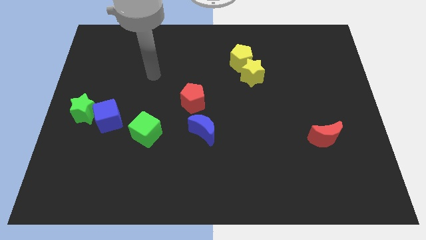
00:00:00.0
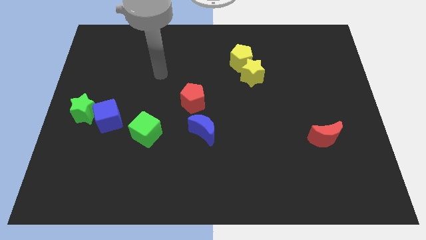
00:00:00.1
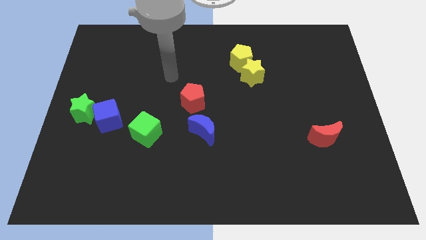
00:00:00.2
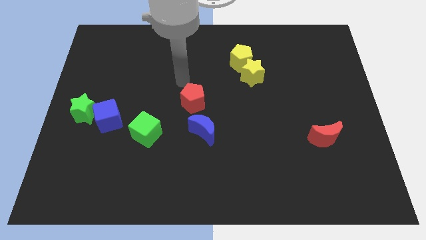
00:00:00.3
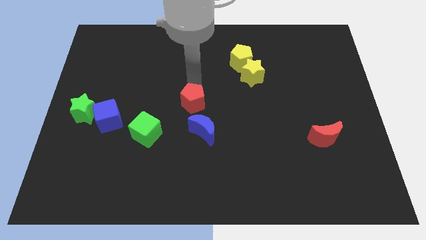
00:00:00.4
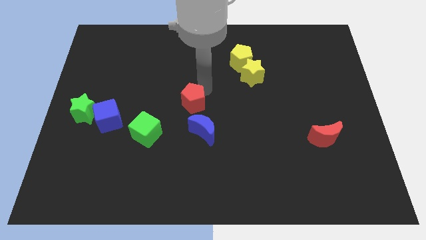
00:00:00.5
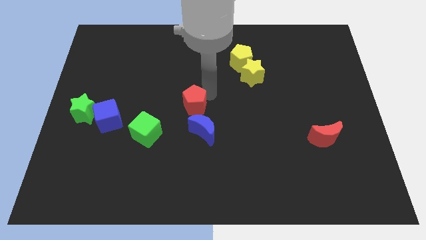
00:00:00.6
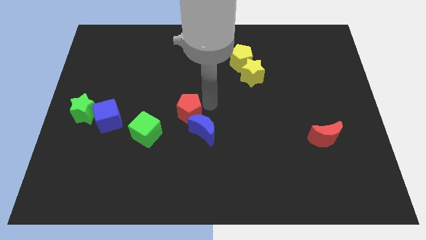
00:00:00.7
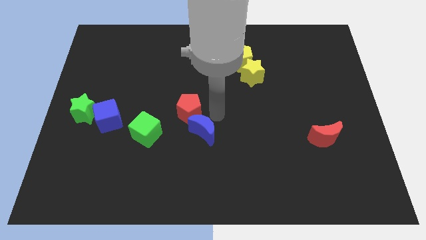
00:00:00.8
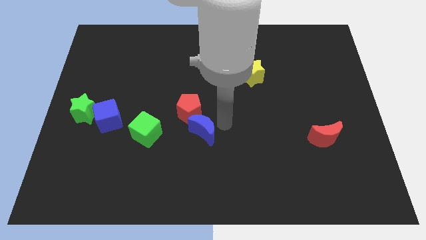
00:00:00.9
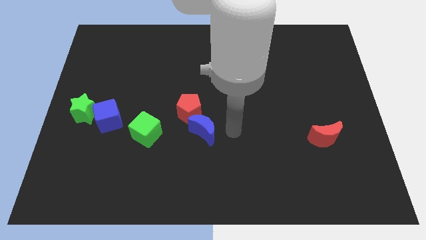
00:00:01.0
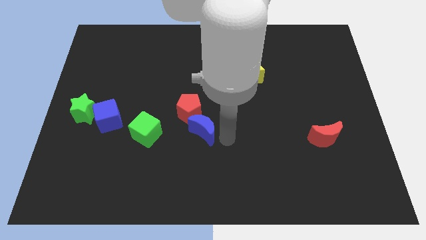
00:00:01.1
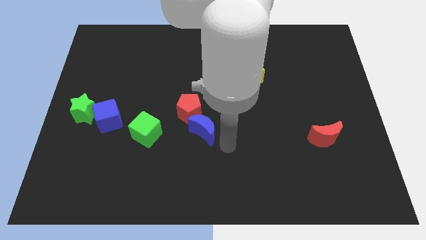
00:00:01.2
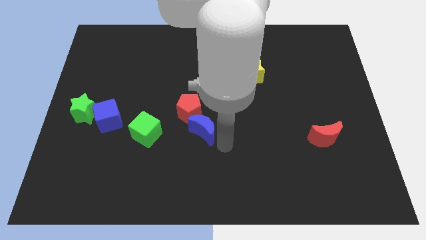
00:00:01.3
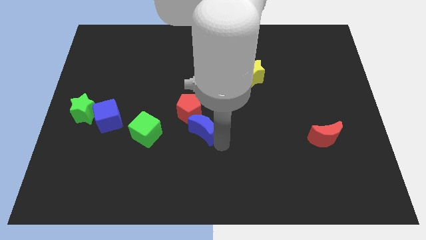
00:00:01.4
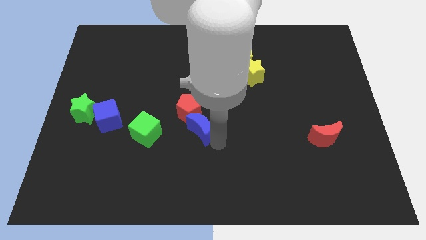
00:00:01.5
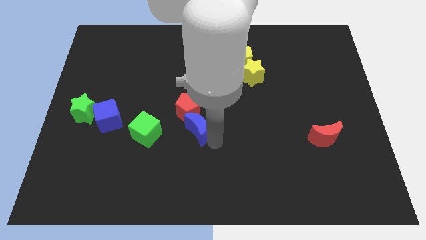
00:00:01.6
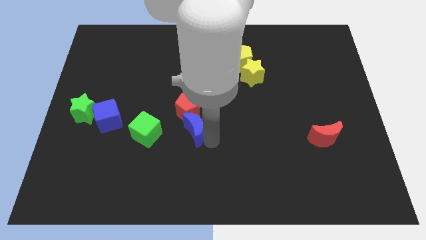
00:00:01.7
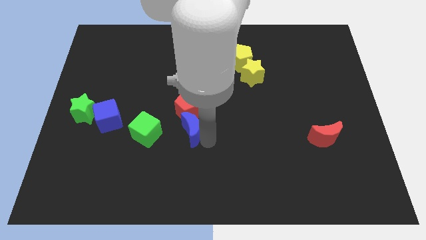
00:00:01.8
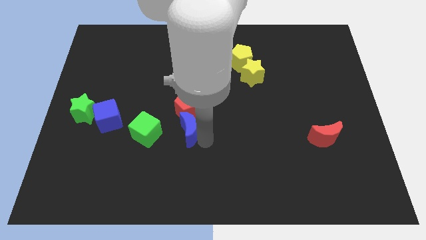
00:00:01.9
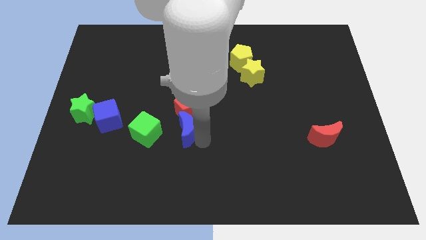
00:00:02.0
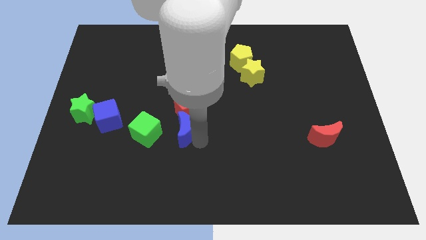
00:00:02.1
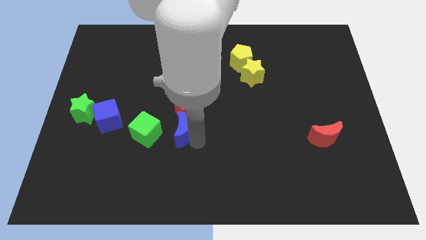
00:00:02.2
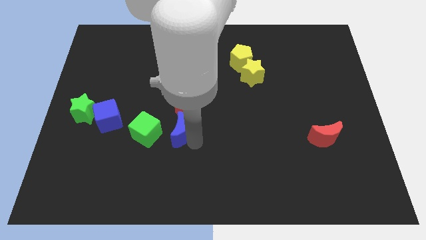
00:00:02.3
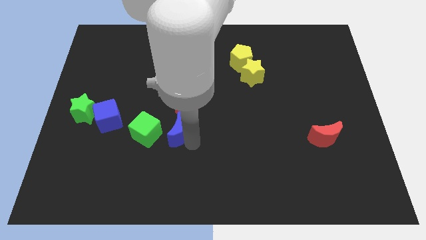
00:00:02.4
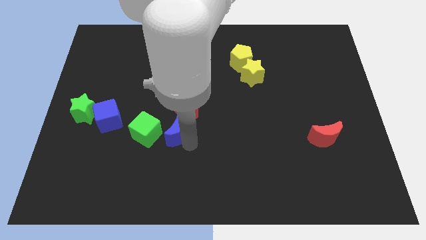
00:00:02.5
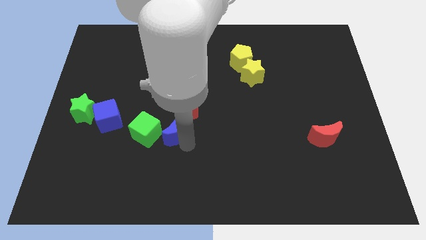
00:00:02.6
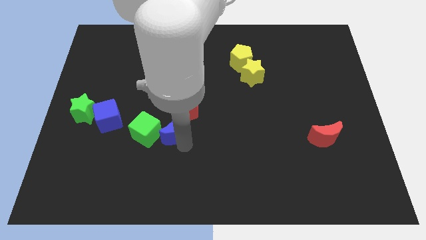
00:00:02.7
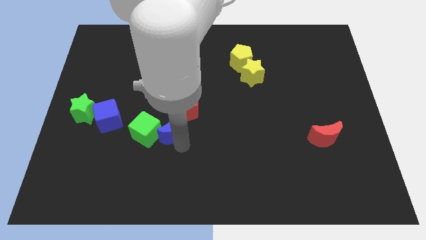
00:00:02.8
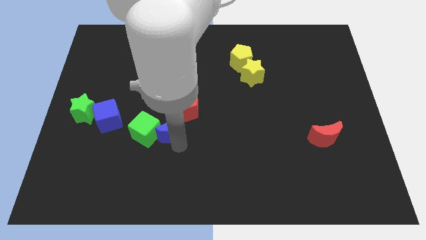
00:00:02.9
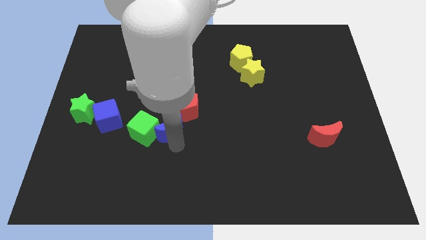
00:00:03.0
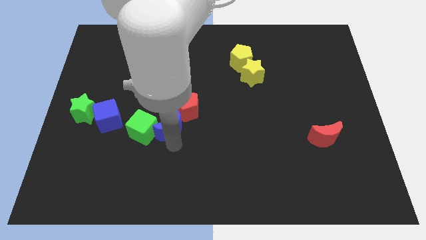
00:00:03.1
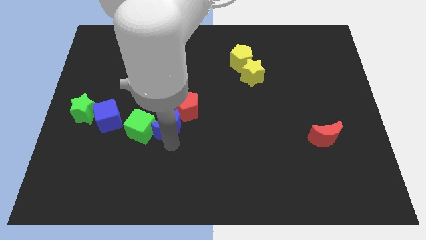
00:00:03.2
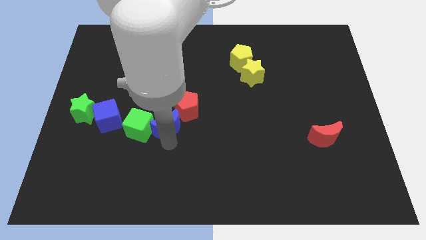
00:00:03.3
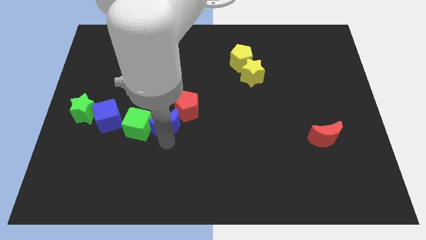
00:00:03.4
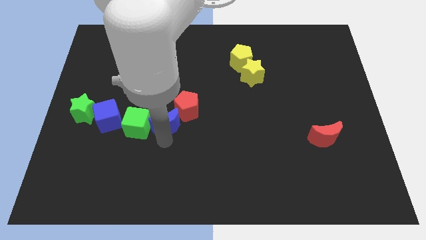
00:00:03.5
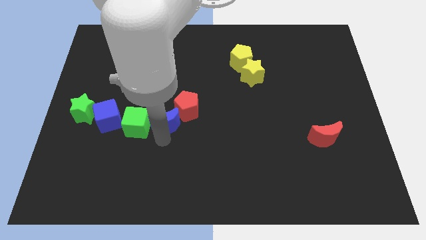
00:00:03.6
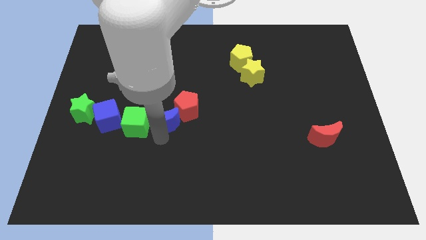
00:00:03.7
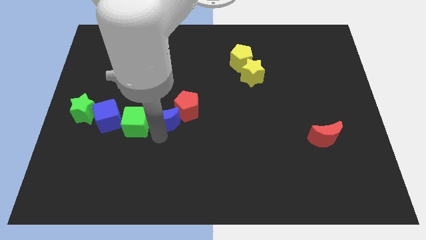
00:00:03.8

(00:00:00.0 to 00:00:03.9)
slightly slide the blue moon upwards and left diagonally

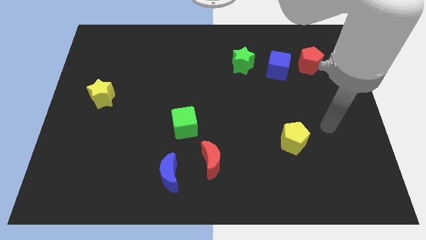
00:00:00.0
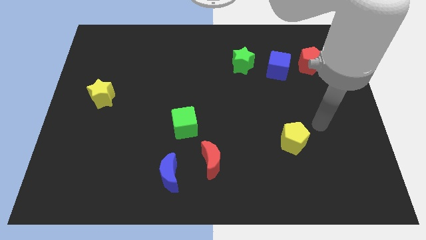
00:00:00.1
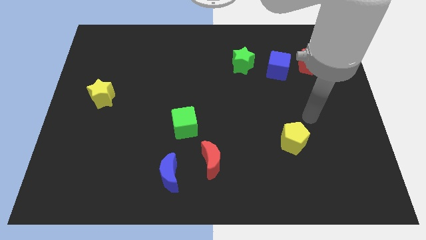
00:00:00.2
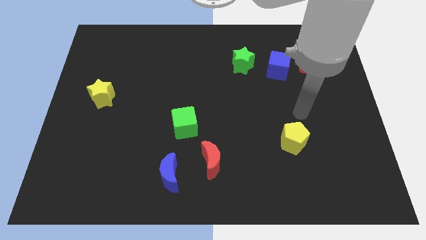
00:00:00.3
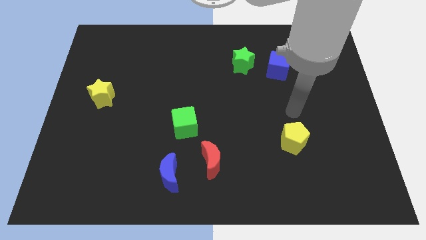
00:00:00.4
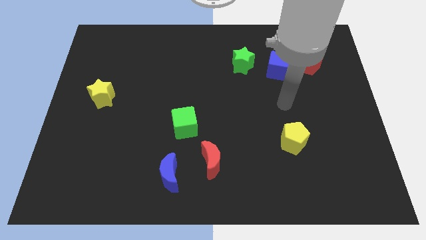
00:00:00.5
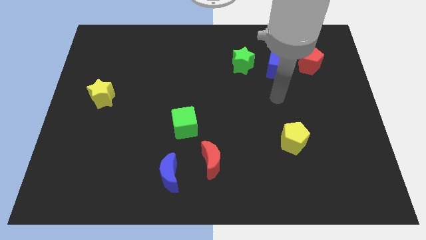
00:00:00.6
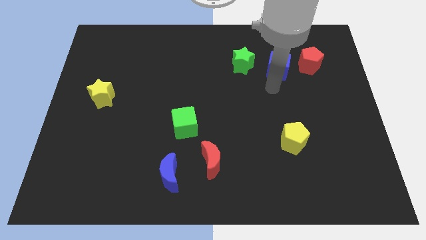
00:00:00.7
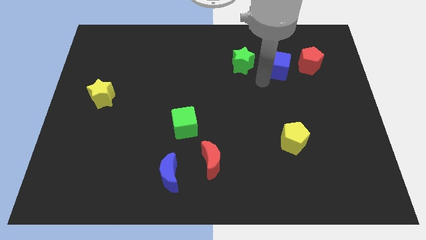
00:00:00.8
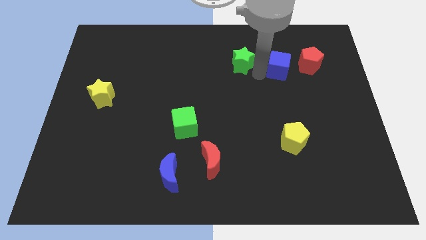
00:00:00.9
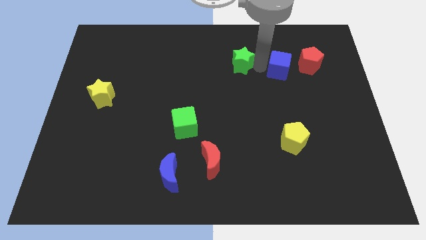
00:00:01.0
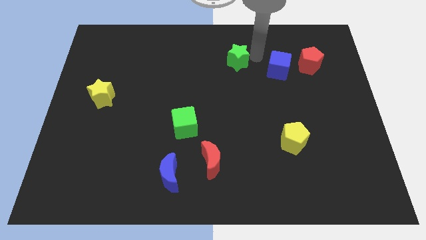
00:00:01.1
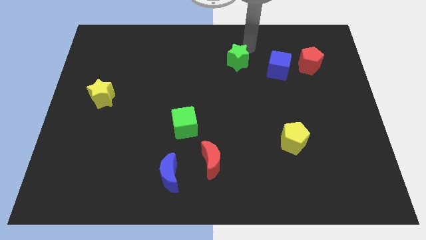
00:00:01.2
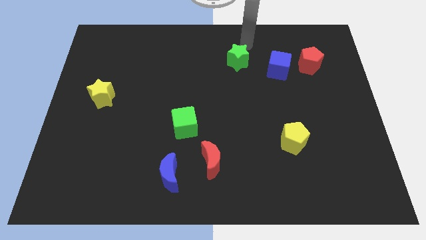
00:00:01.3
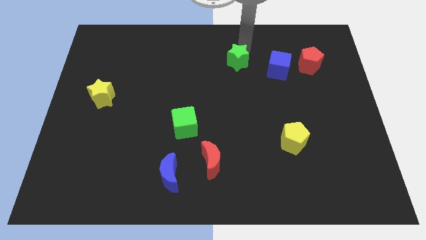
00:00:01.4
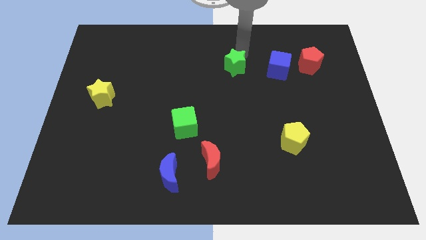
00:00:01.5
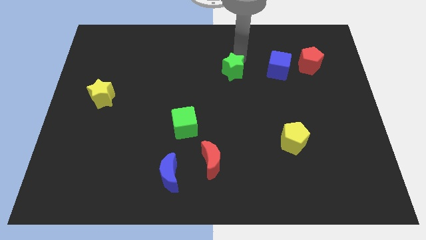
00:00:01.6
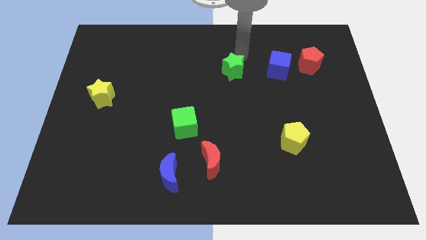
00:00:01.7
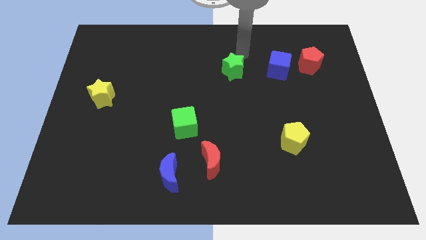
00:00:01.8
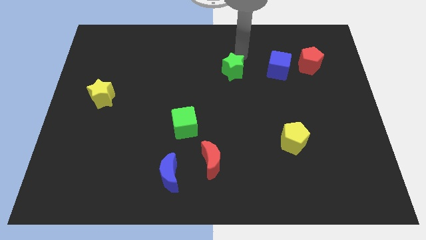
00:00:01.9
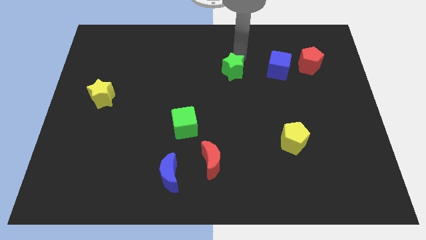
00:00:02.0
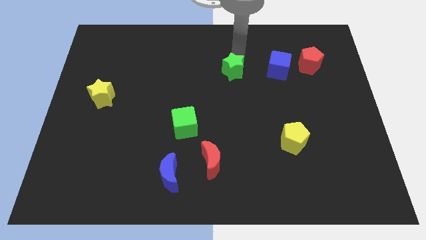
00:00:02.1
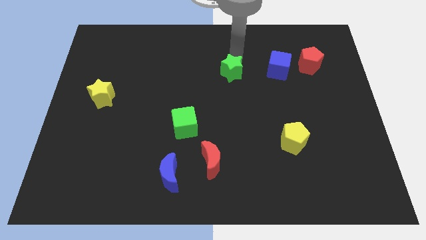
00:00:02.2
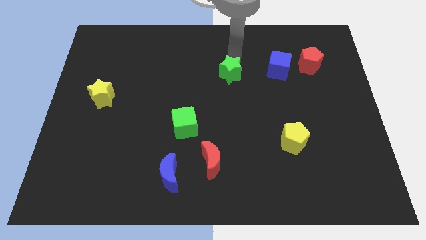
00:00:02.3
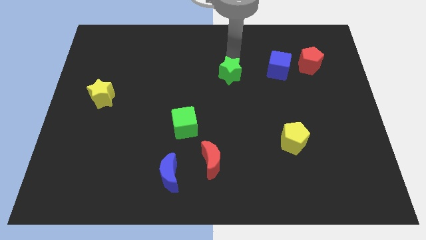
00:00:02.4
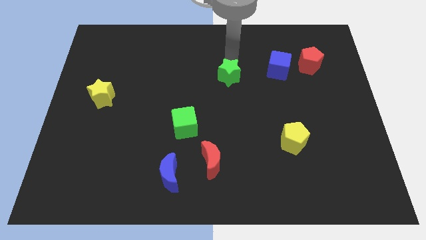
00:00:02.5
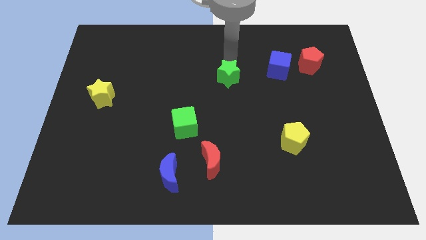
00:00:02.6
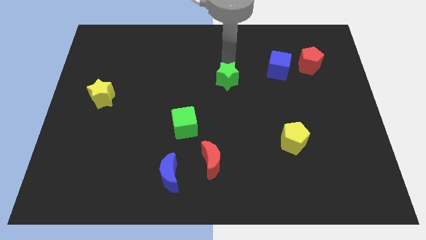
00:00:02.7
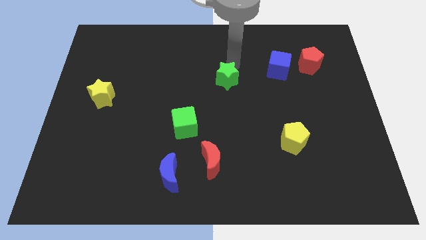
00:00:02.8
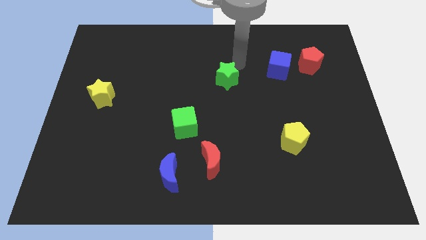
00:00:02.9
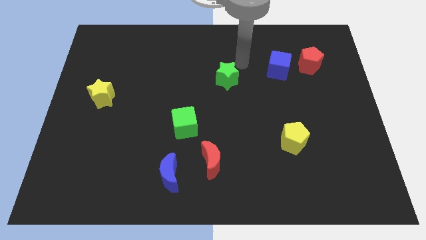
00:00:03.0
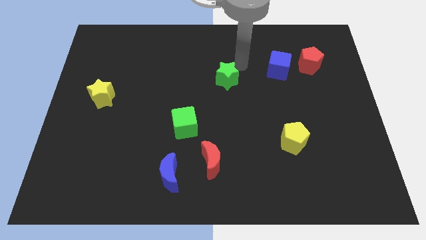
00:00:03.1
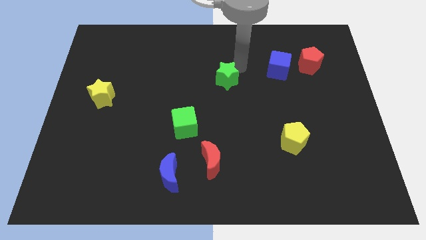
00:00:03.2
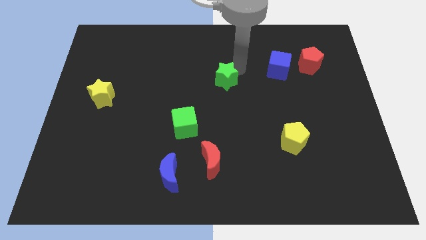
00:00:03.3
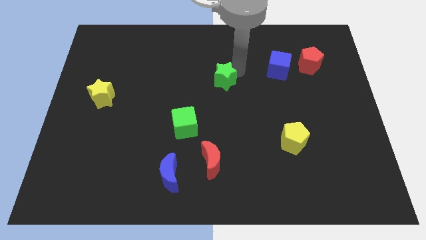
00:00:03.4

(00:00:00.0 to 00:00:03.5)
push the green star a bit diagonally downwards and left
